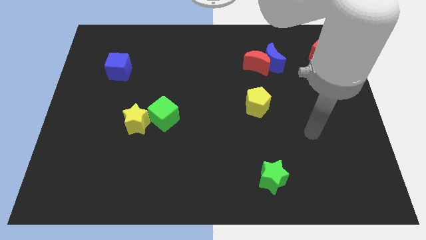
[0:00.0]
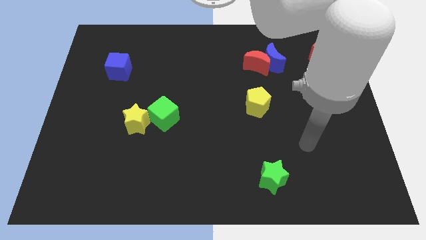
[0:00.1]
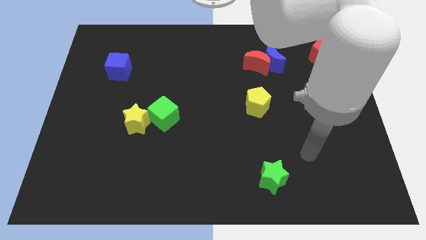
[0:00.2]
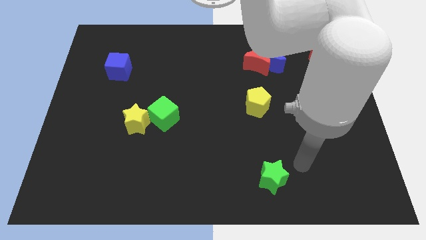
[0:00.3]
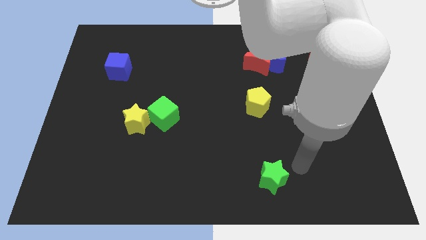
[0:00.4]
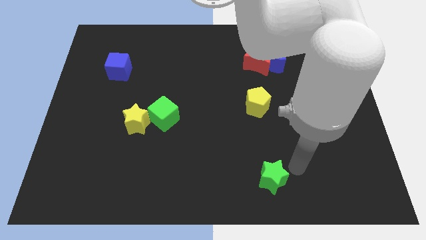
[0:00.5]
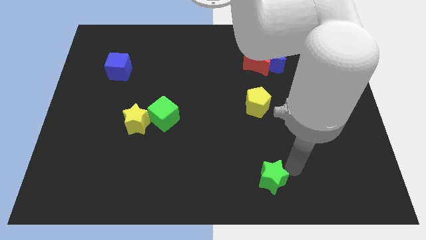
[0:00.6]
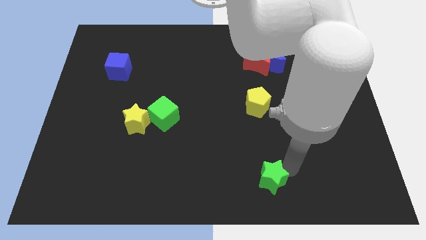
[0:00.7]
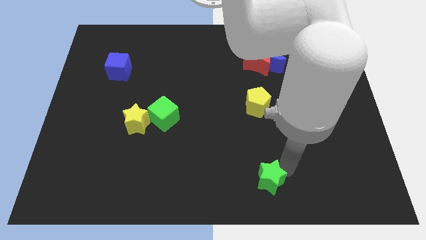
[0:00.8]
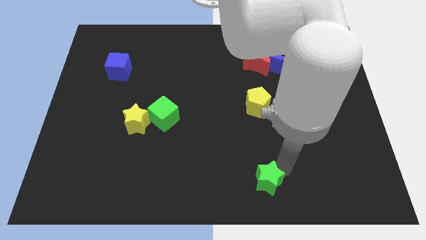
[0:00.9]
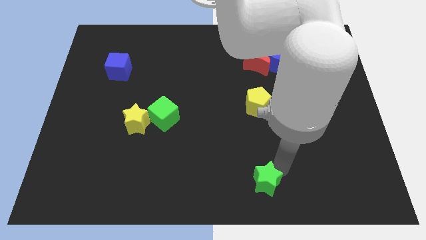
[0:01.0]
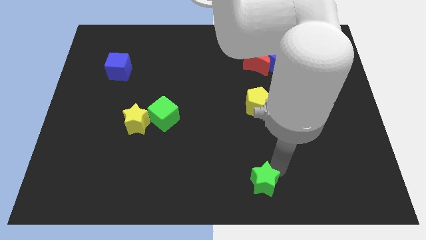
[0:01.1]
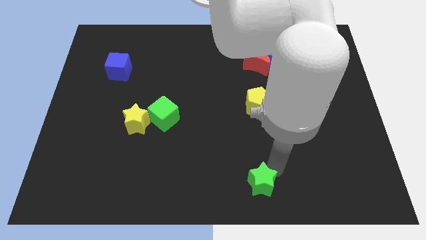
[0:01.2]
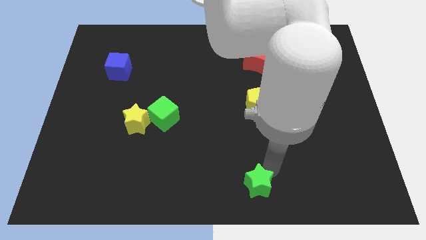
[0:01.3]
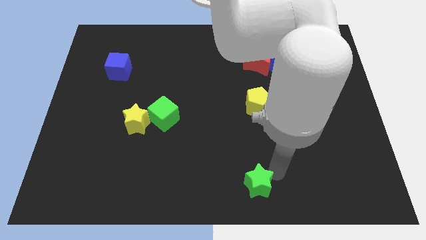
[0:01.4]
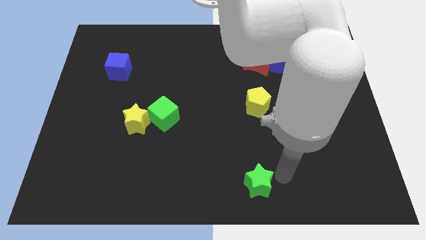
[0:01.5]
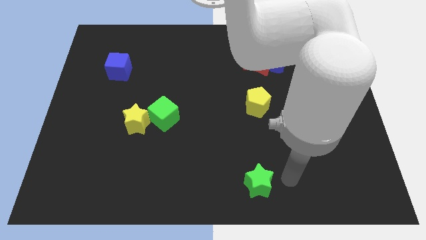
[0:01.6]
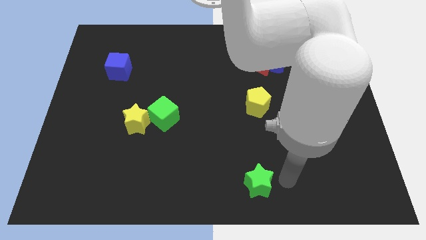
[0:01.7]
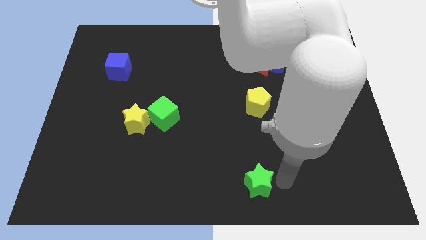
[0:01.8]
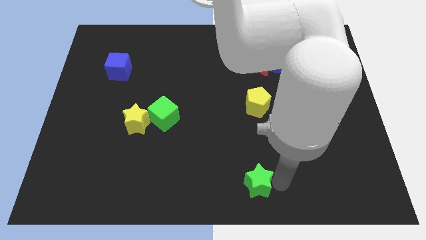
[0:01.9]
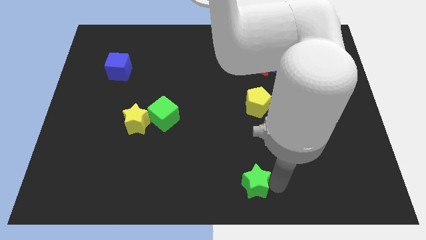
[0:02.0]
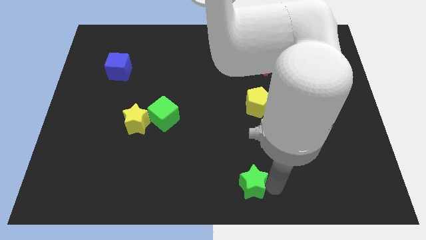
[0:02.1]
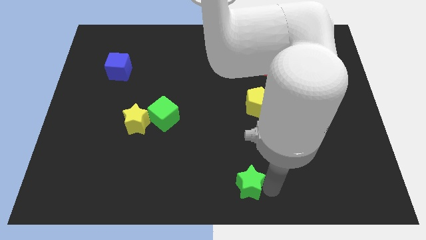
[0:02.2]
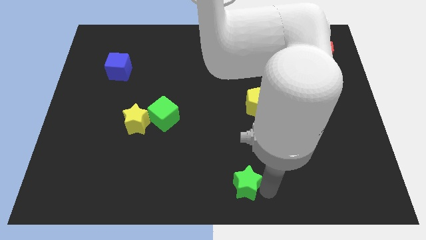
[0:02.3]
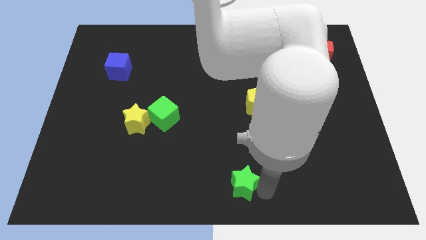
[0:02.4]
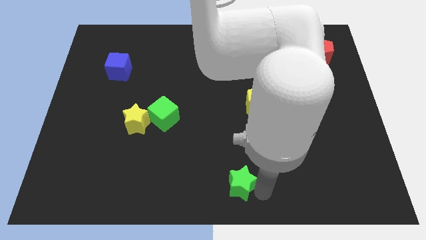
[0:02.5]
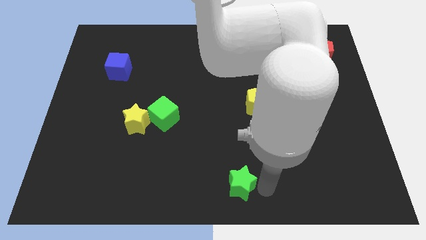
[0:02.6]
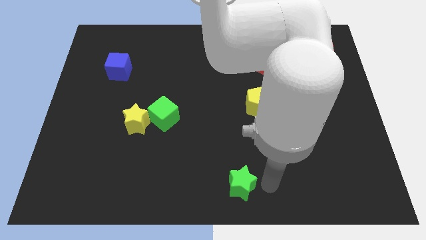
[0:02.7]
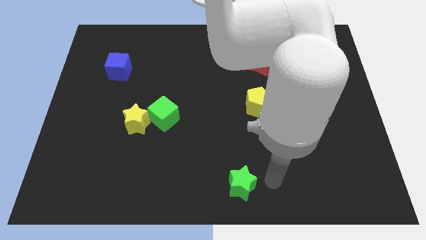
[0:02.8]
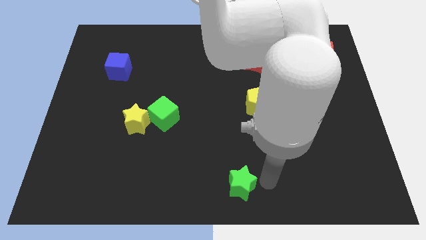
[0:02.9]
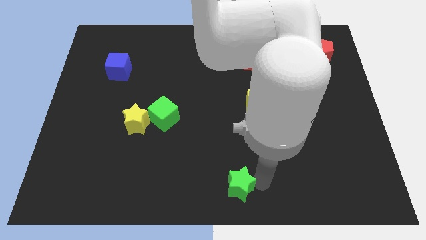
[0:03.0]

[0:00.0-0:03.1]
slightly move the green star to the left

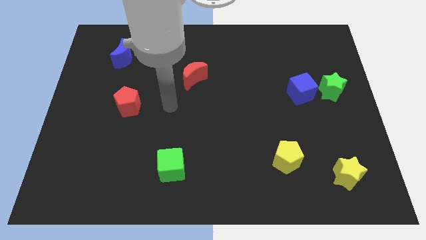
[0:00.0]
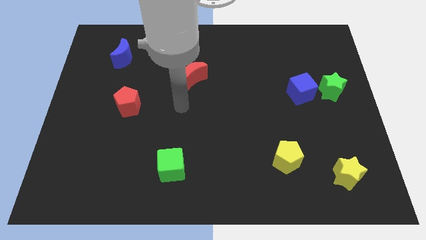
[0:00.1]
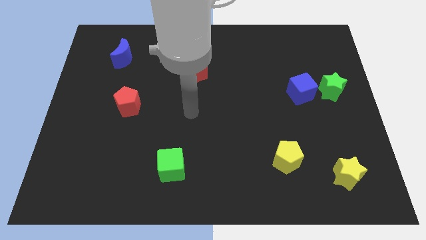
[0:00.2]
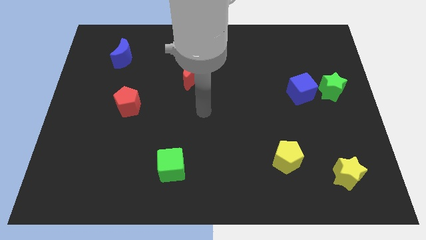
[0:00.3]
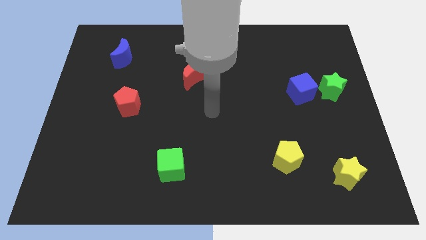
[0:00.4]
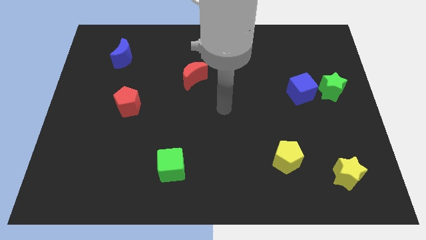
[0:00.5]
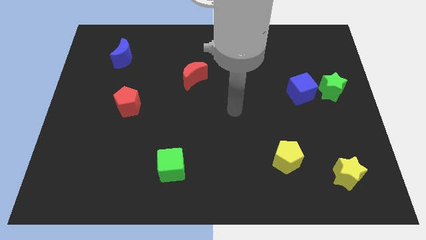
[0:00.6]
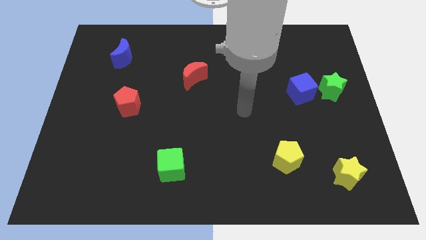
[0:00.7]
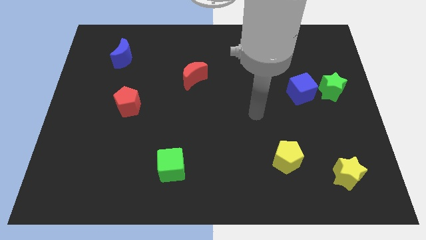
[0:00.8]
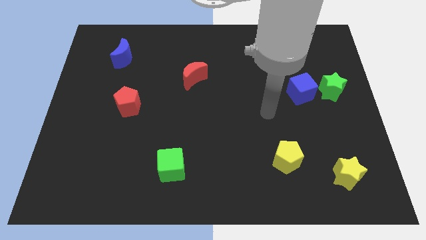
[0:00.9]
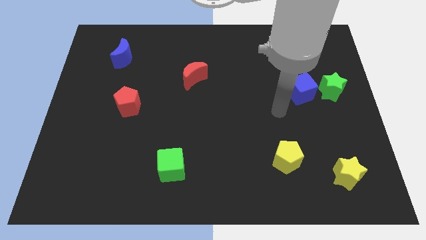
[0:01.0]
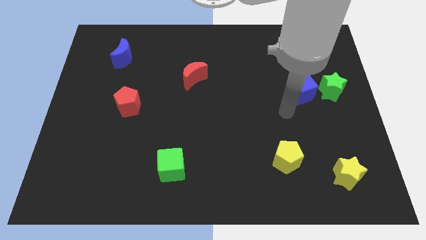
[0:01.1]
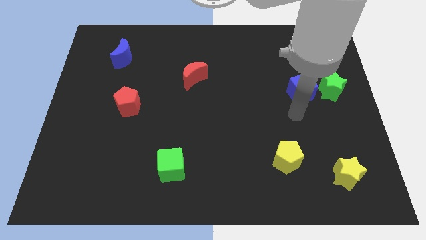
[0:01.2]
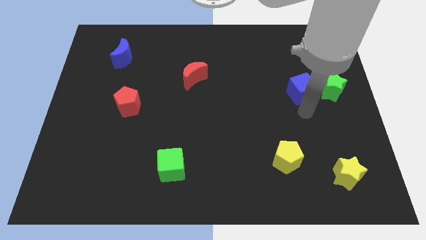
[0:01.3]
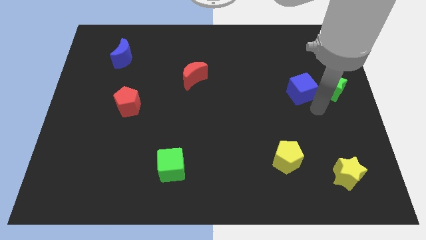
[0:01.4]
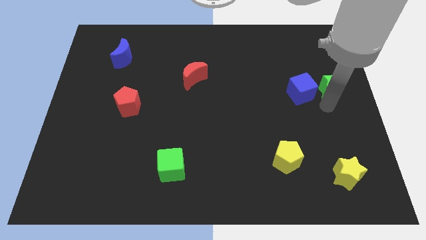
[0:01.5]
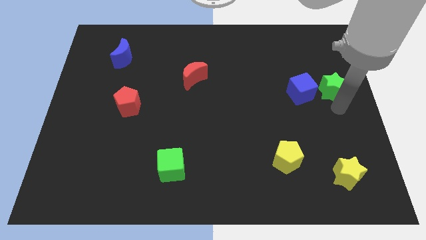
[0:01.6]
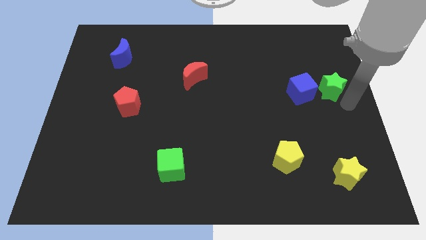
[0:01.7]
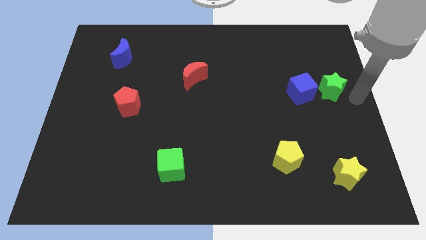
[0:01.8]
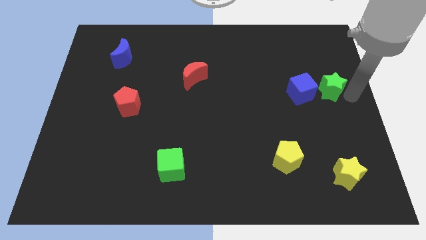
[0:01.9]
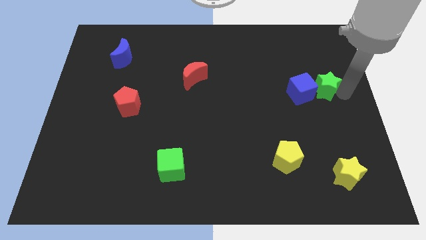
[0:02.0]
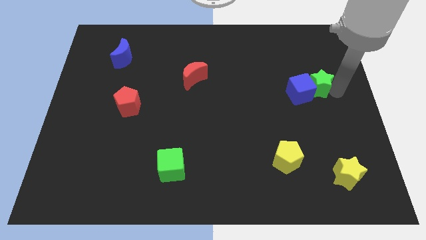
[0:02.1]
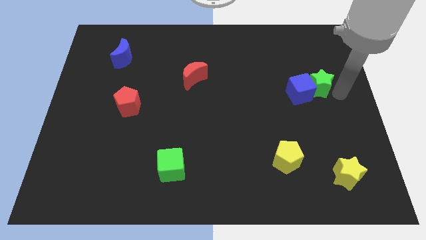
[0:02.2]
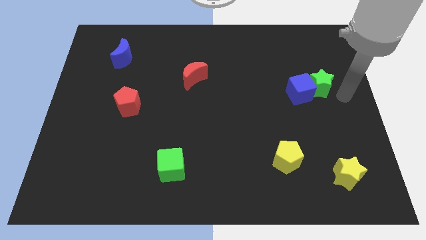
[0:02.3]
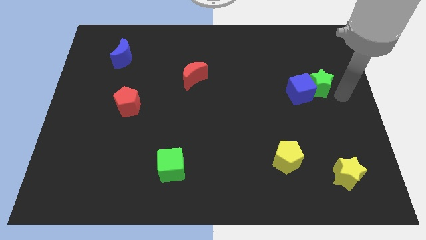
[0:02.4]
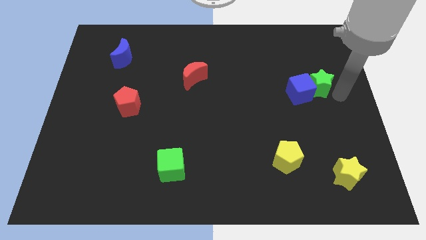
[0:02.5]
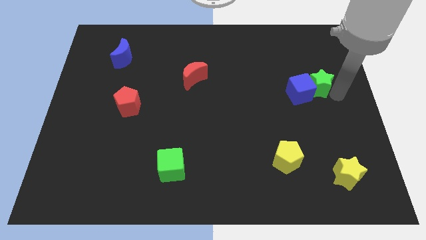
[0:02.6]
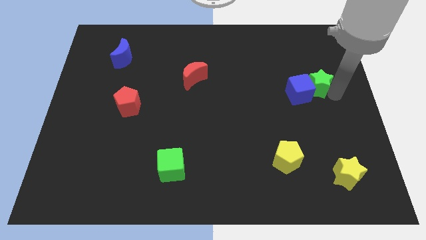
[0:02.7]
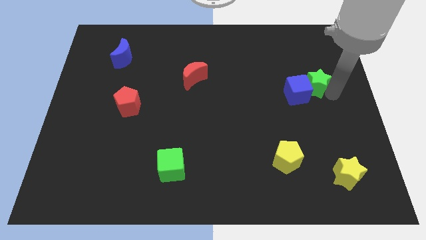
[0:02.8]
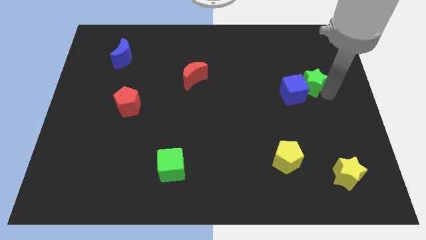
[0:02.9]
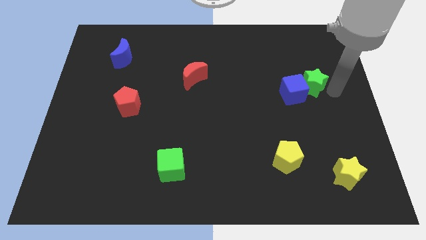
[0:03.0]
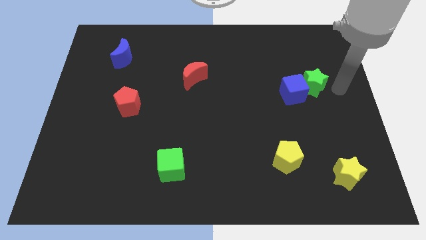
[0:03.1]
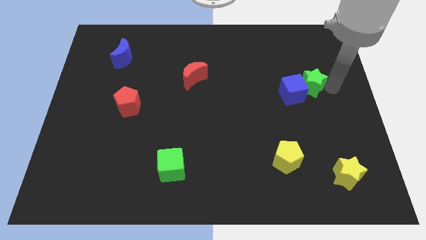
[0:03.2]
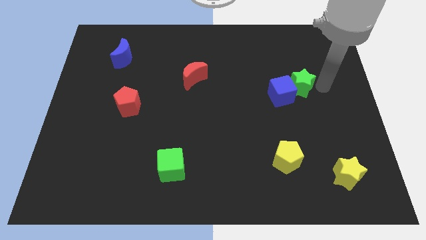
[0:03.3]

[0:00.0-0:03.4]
move the green star left somewhat

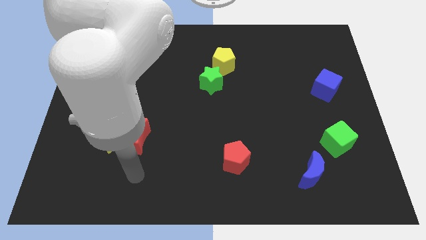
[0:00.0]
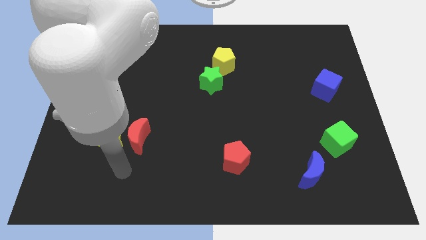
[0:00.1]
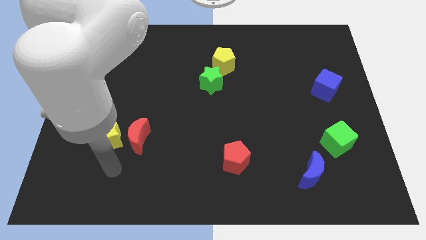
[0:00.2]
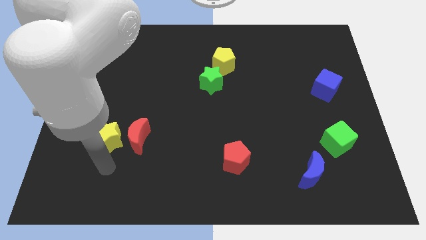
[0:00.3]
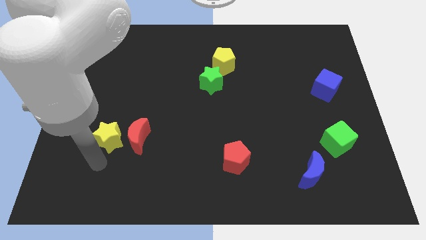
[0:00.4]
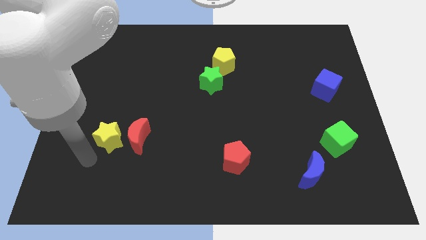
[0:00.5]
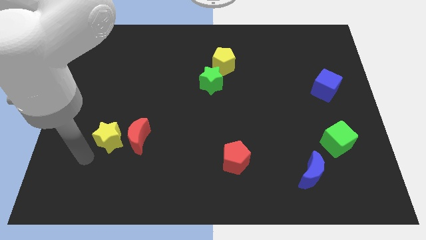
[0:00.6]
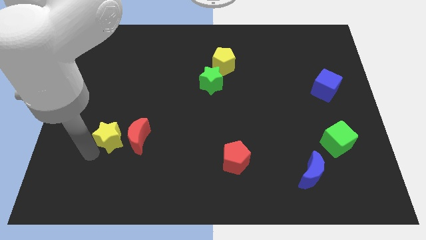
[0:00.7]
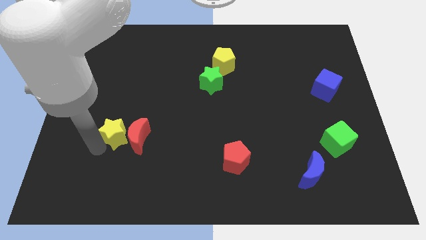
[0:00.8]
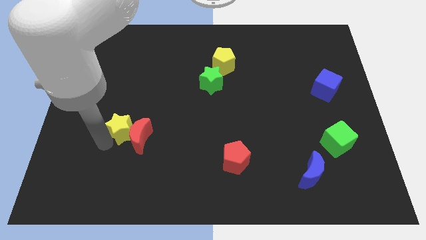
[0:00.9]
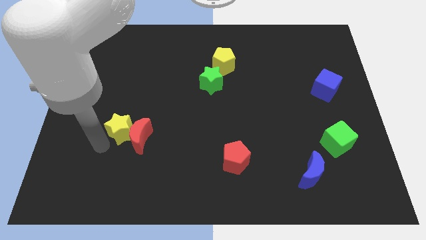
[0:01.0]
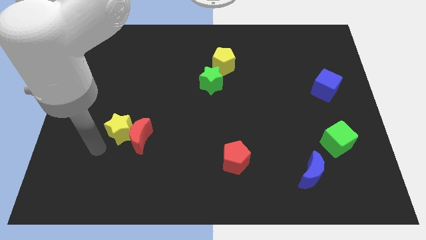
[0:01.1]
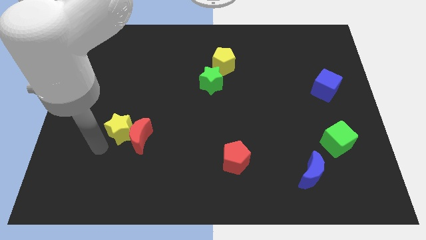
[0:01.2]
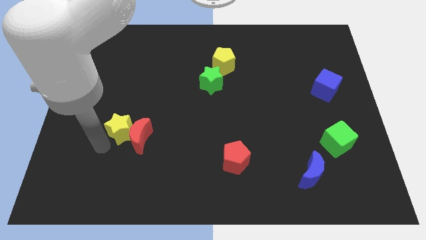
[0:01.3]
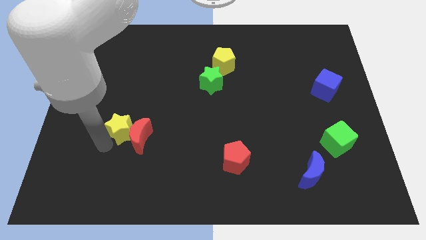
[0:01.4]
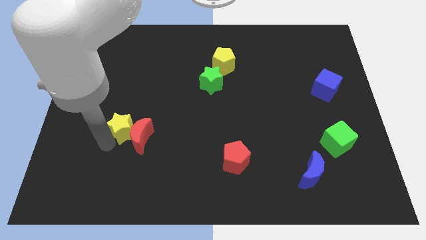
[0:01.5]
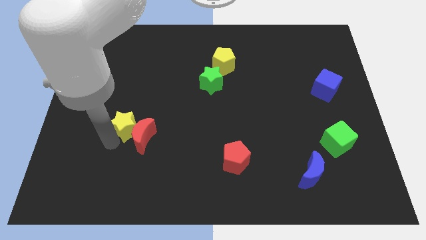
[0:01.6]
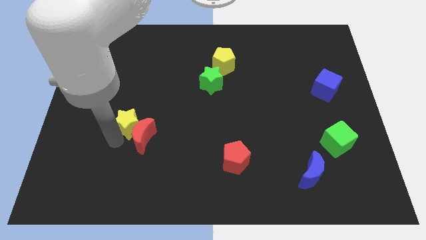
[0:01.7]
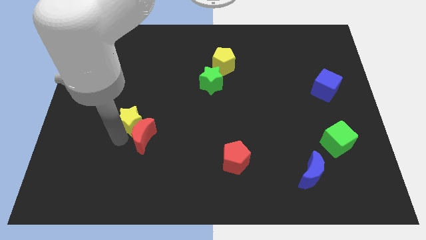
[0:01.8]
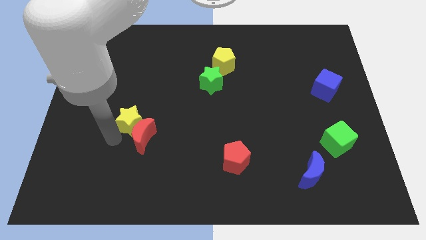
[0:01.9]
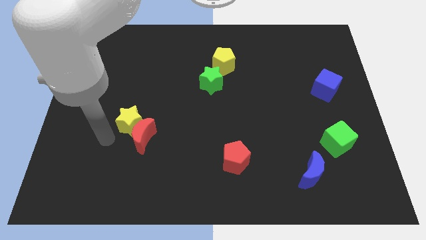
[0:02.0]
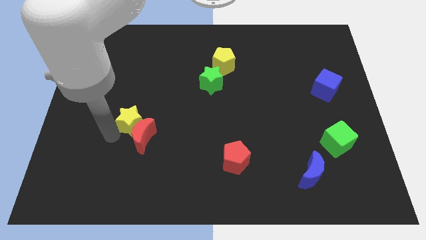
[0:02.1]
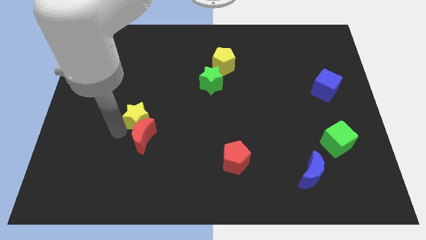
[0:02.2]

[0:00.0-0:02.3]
slightly move the yellow star diagonally up and to the right
